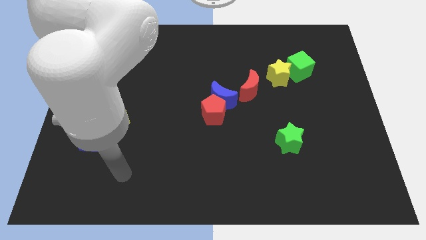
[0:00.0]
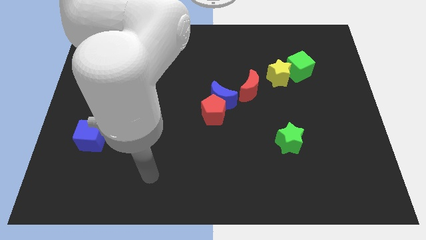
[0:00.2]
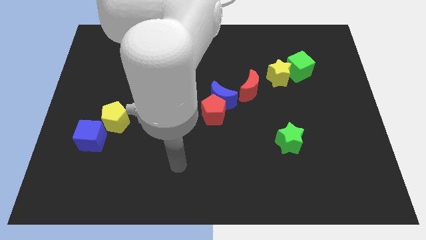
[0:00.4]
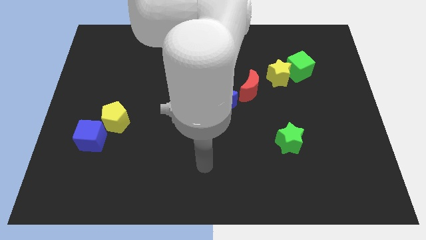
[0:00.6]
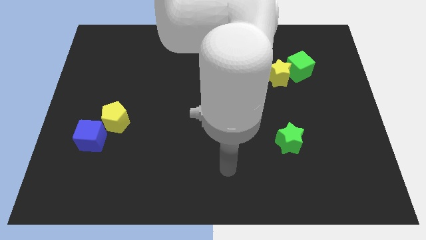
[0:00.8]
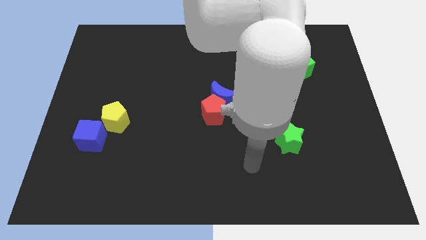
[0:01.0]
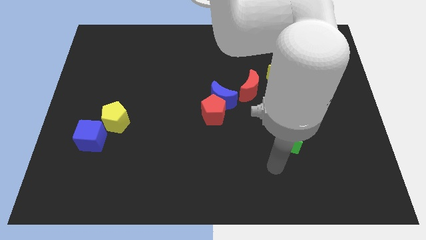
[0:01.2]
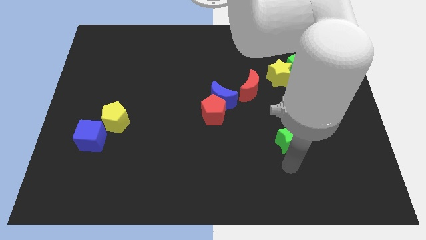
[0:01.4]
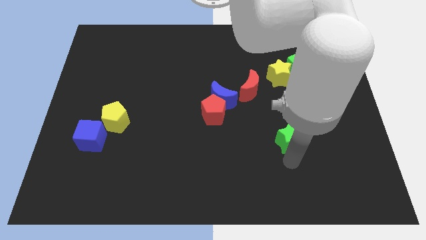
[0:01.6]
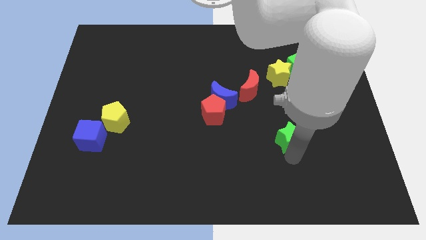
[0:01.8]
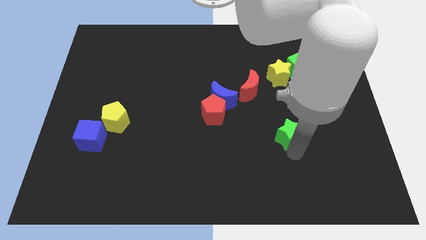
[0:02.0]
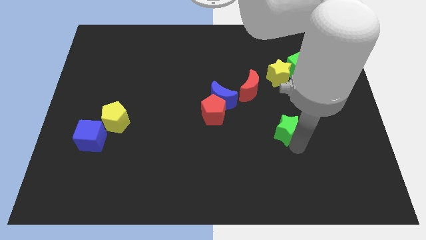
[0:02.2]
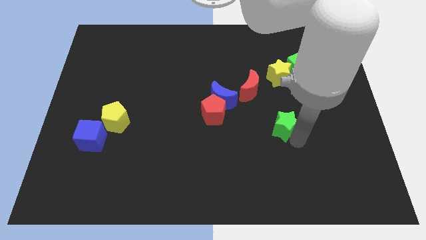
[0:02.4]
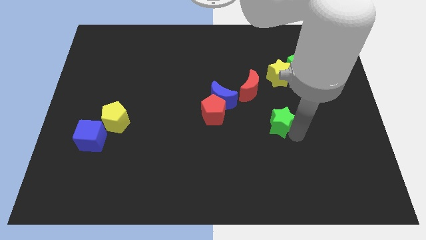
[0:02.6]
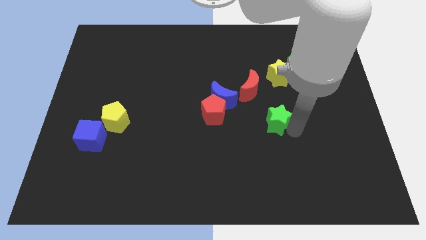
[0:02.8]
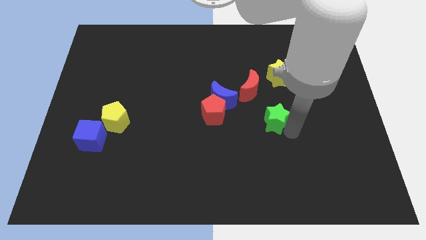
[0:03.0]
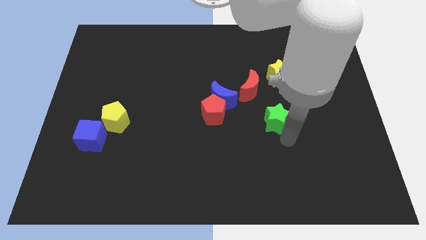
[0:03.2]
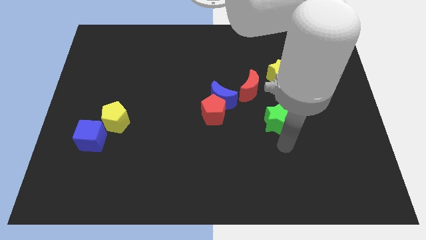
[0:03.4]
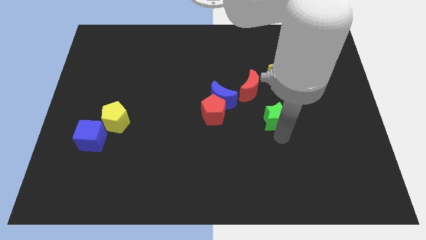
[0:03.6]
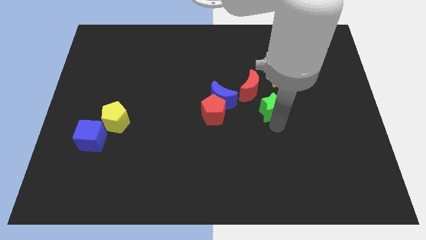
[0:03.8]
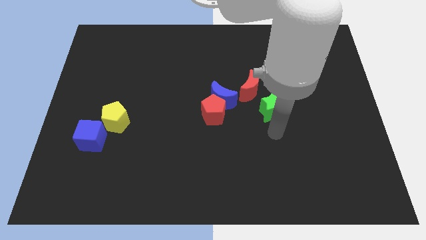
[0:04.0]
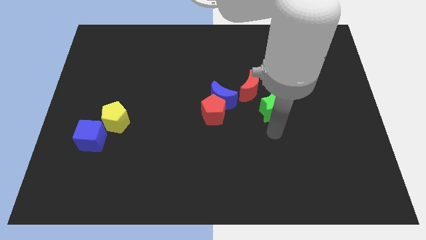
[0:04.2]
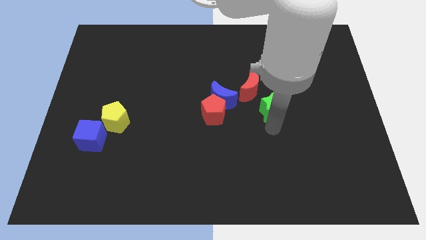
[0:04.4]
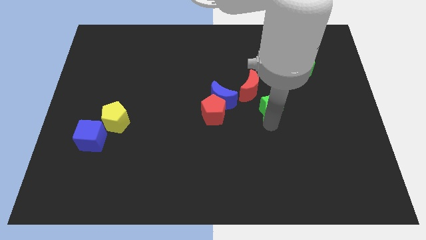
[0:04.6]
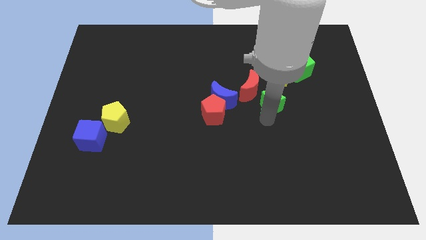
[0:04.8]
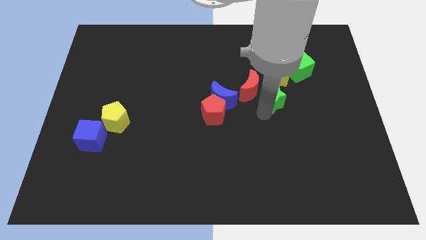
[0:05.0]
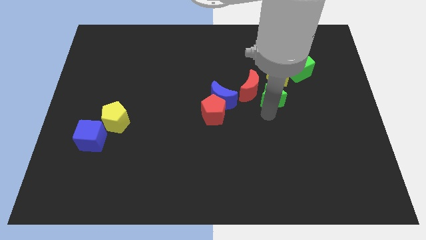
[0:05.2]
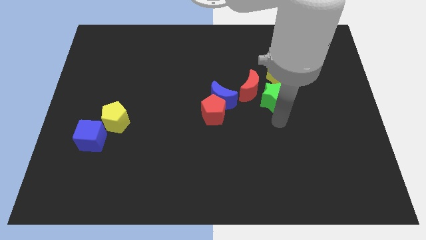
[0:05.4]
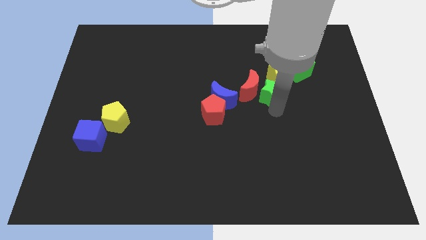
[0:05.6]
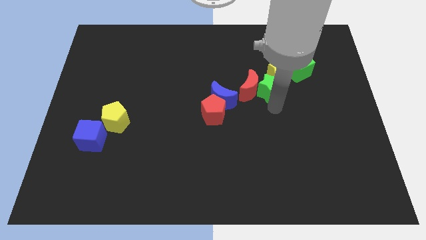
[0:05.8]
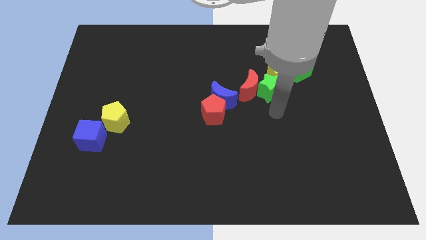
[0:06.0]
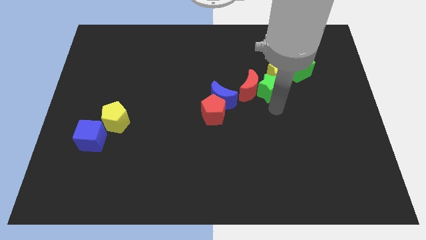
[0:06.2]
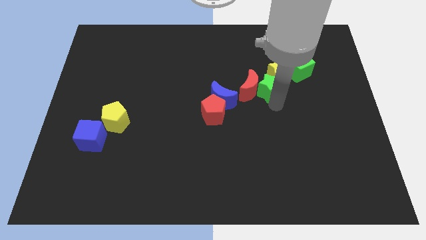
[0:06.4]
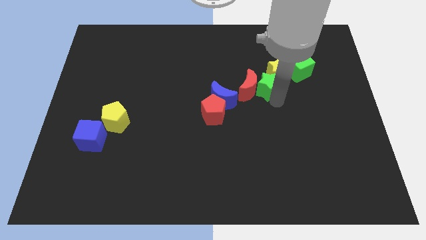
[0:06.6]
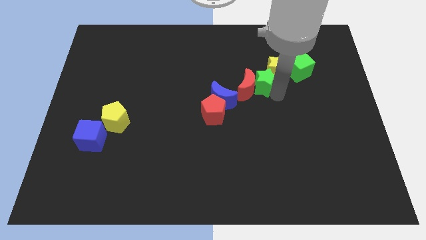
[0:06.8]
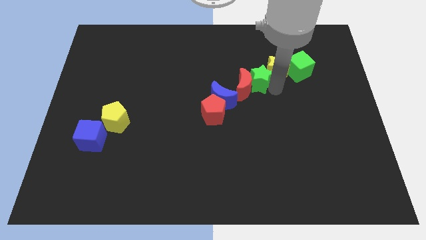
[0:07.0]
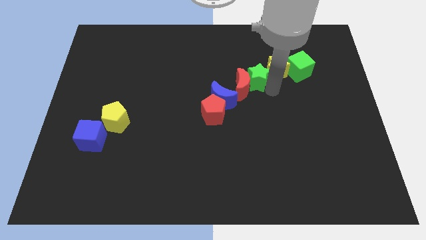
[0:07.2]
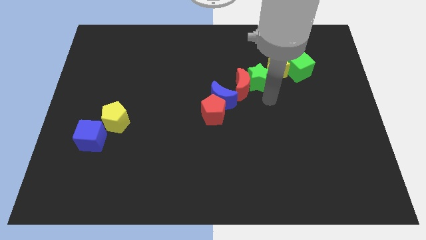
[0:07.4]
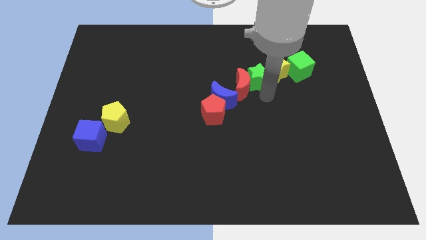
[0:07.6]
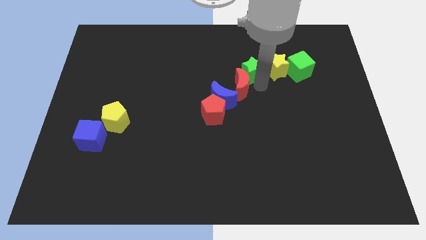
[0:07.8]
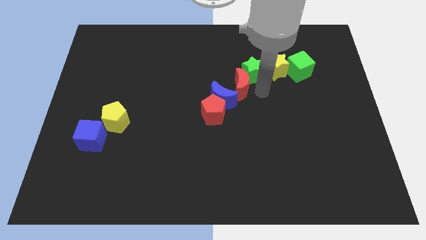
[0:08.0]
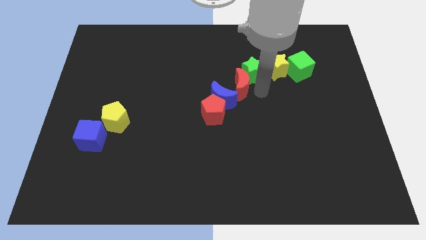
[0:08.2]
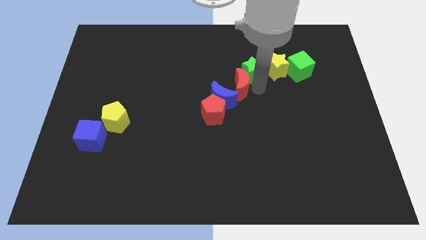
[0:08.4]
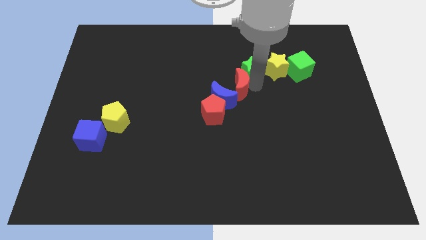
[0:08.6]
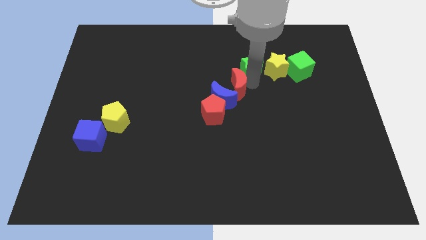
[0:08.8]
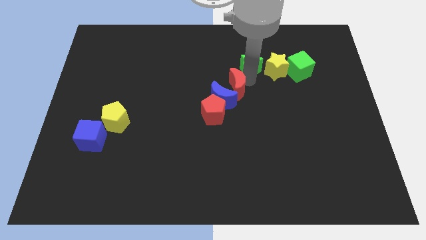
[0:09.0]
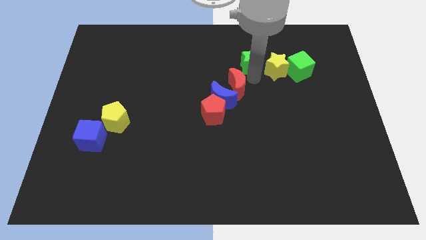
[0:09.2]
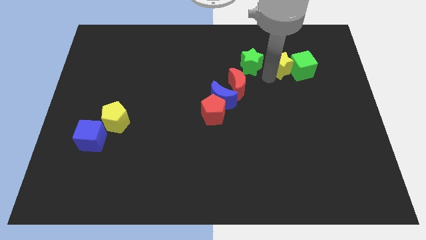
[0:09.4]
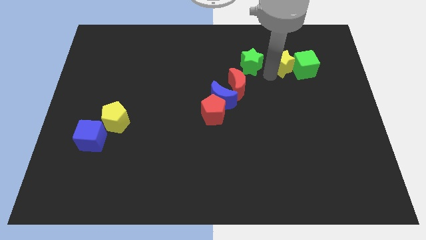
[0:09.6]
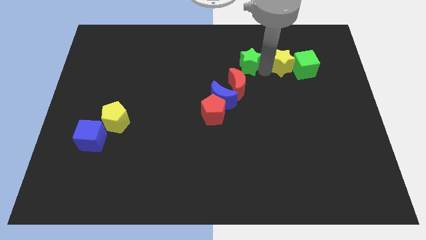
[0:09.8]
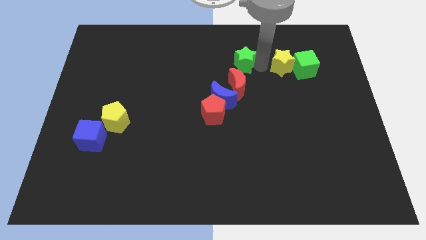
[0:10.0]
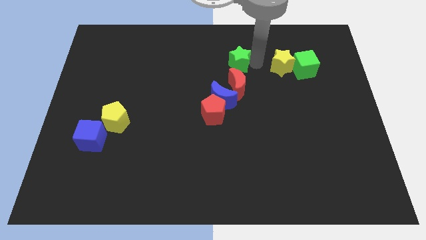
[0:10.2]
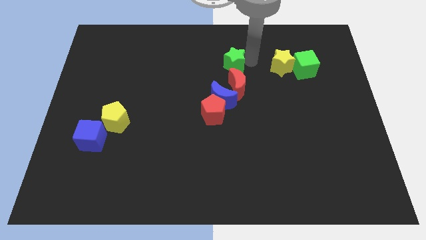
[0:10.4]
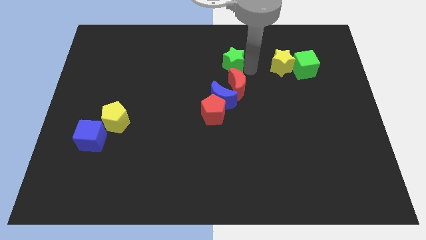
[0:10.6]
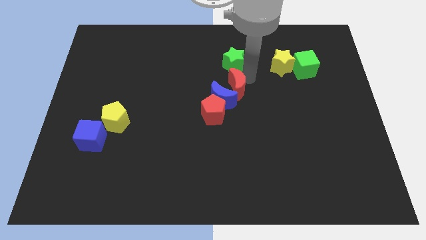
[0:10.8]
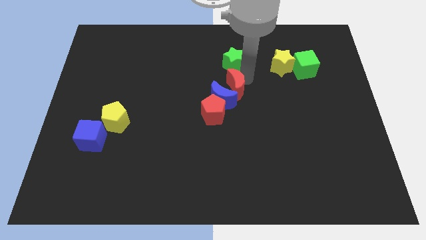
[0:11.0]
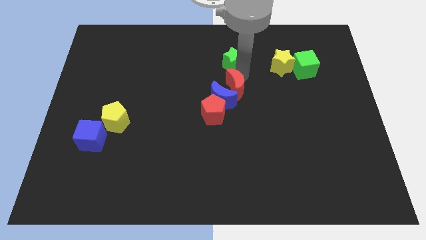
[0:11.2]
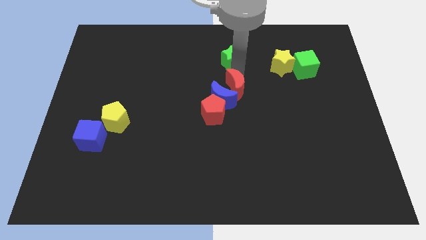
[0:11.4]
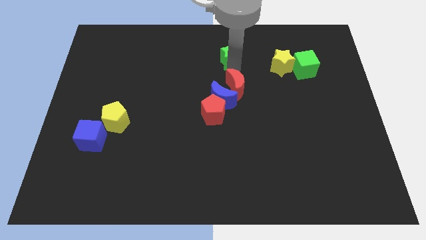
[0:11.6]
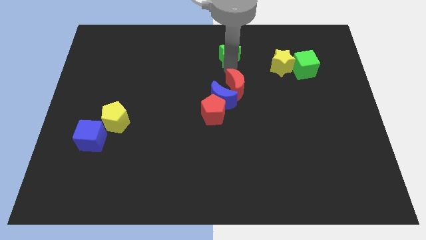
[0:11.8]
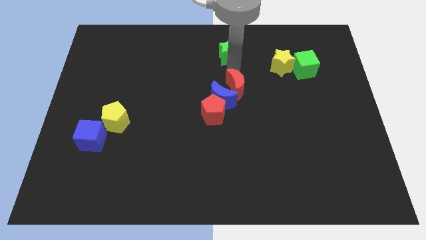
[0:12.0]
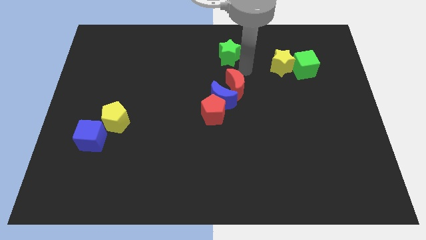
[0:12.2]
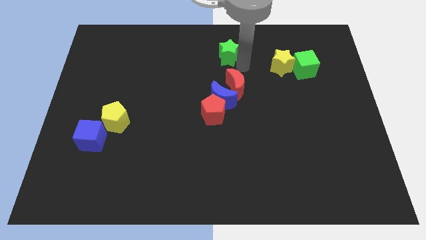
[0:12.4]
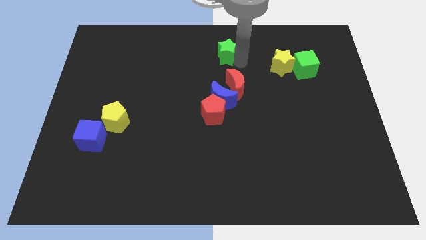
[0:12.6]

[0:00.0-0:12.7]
slide the green star to the towards your base

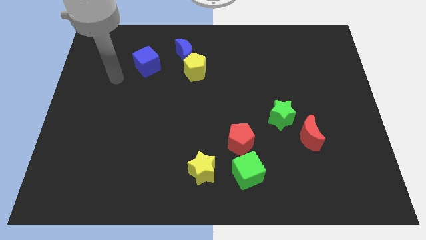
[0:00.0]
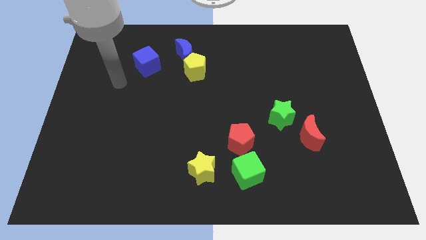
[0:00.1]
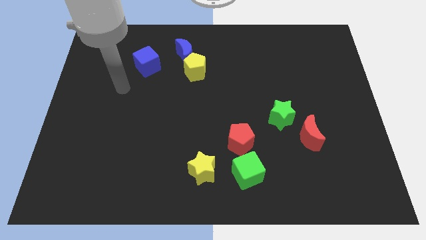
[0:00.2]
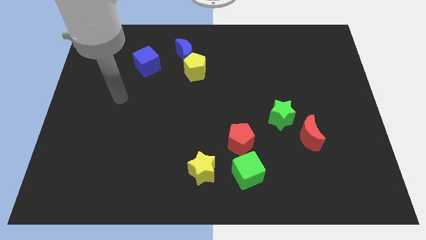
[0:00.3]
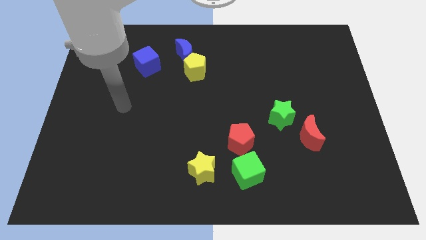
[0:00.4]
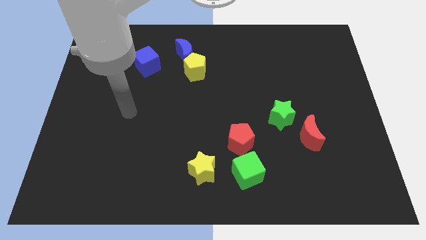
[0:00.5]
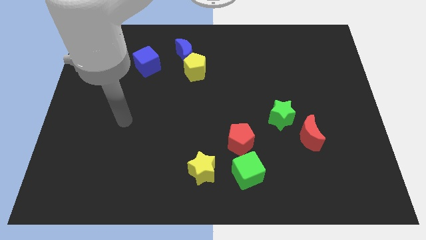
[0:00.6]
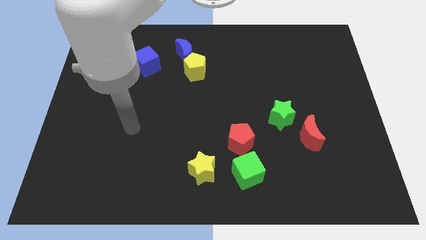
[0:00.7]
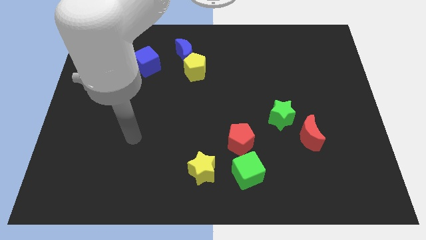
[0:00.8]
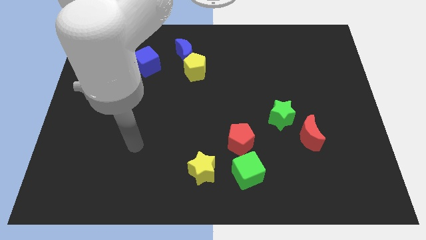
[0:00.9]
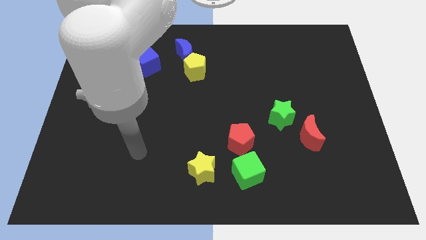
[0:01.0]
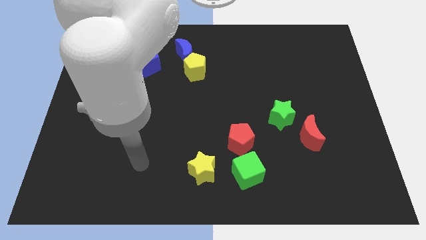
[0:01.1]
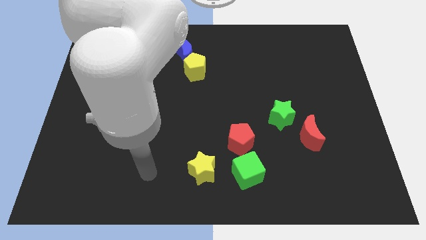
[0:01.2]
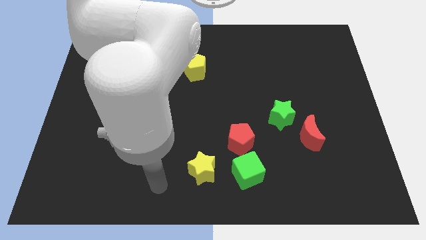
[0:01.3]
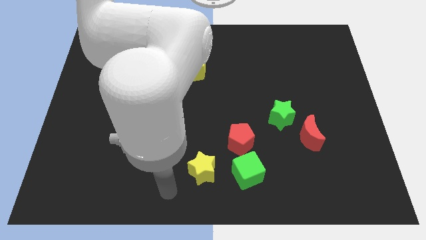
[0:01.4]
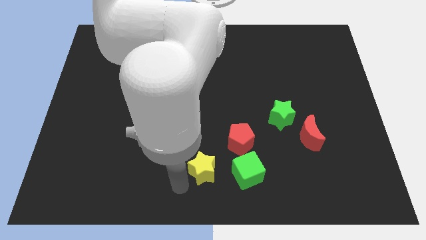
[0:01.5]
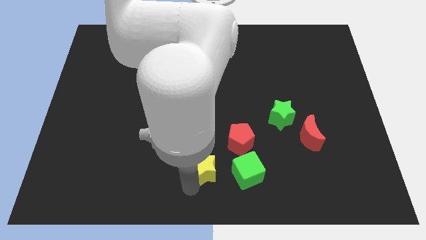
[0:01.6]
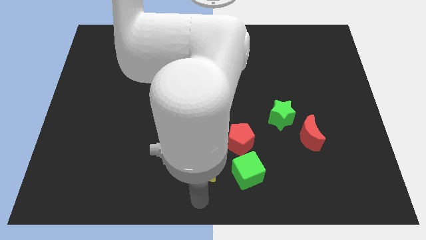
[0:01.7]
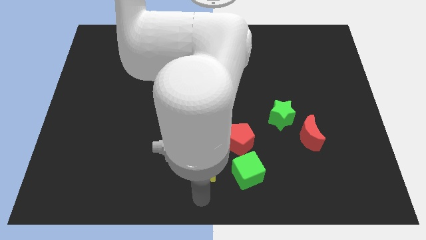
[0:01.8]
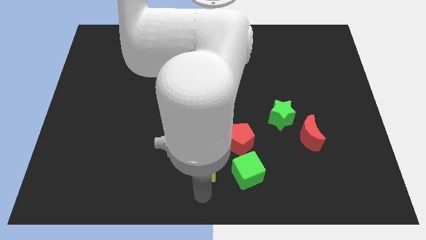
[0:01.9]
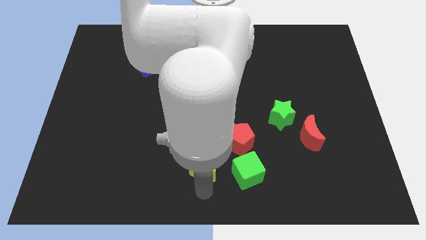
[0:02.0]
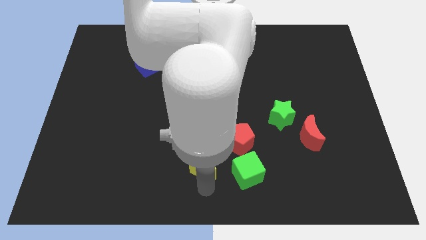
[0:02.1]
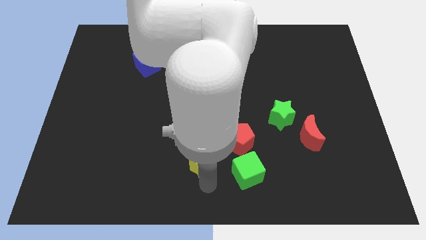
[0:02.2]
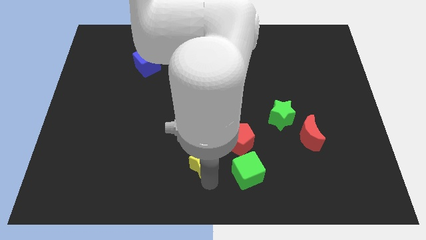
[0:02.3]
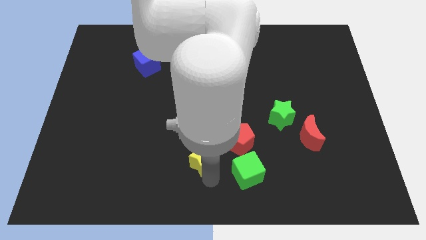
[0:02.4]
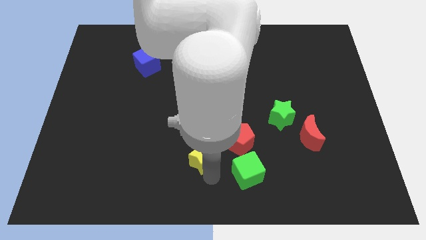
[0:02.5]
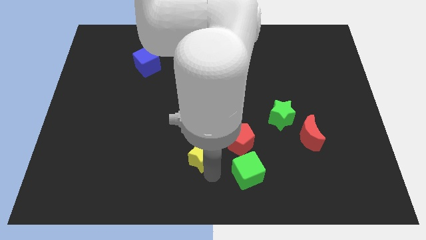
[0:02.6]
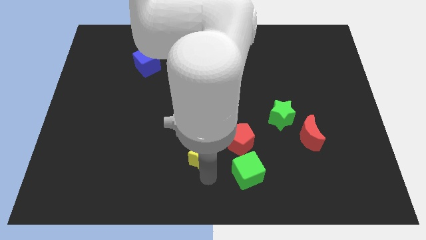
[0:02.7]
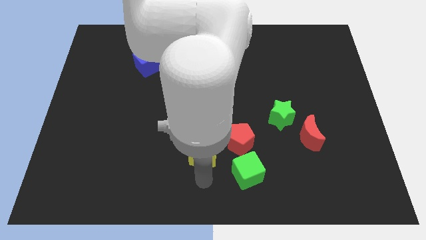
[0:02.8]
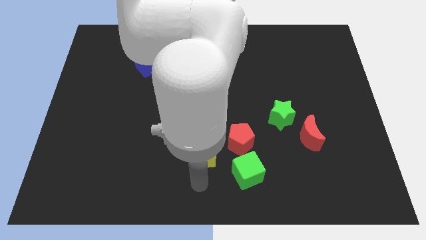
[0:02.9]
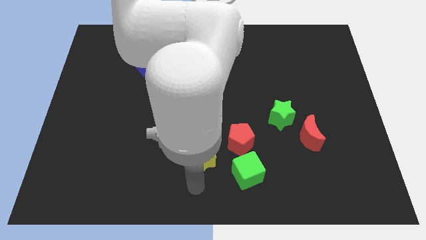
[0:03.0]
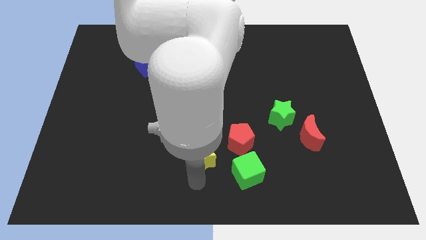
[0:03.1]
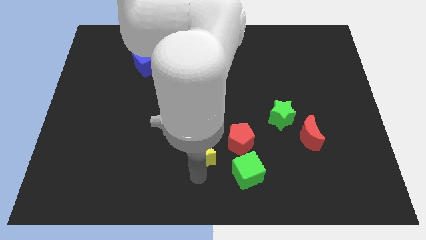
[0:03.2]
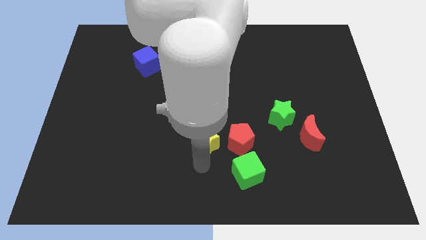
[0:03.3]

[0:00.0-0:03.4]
slide the yellow star to the middle of the board
